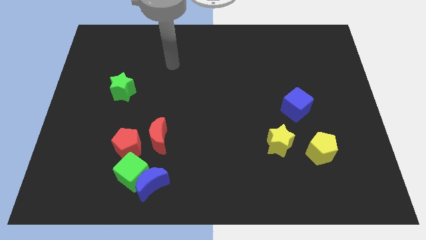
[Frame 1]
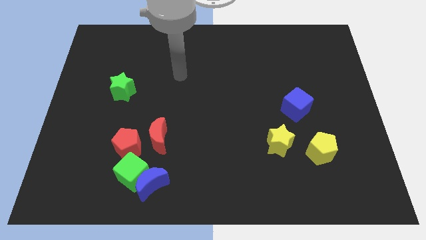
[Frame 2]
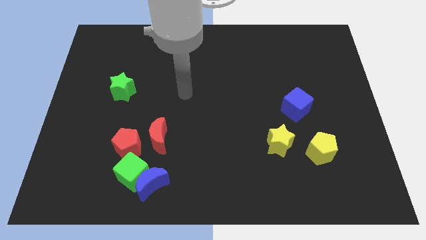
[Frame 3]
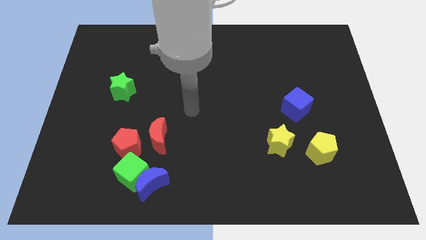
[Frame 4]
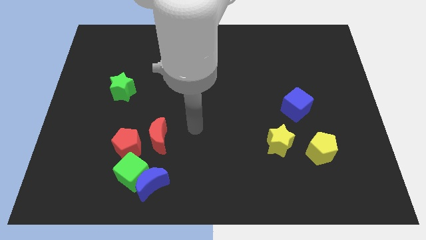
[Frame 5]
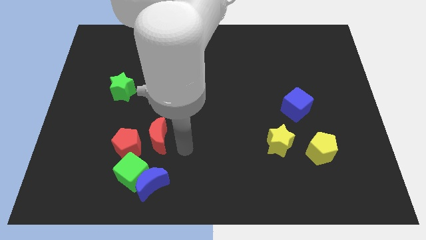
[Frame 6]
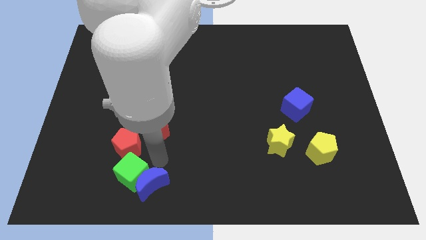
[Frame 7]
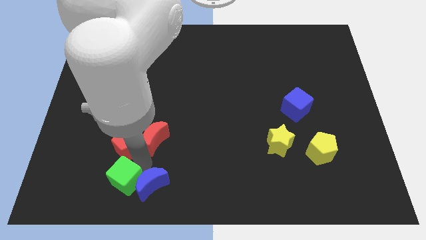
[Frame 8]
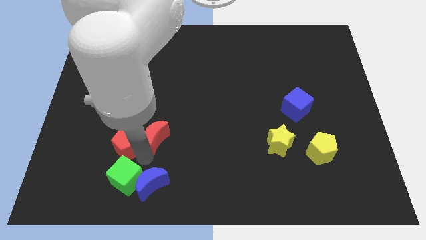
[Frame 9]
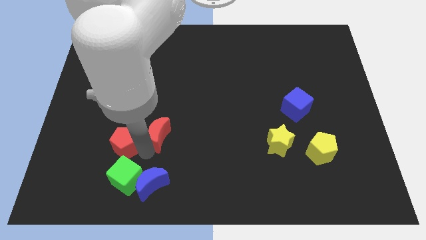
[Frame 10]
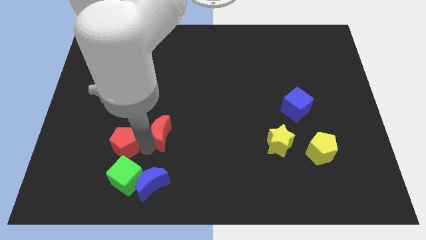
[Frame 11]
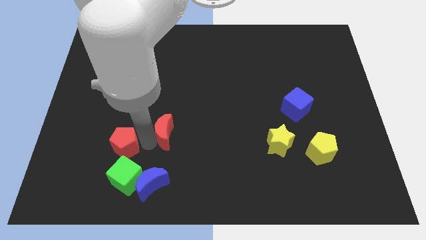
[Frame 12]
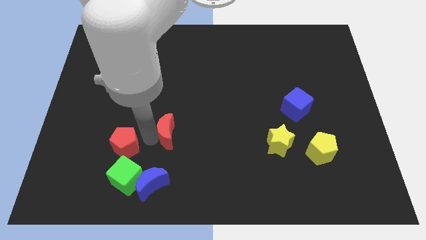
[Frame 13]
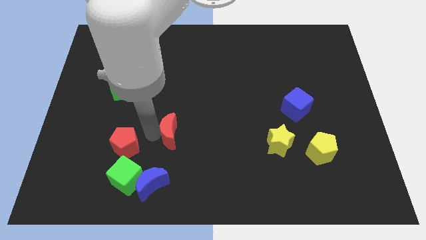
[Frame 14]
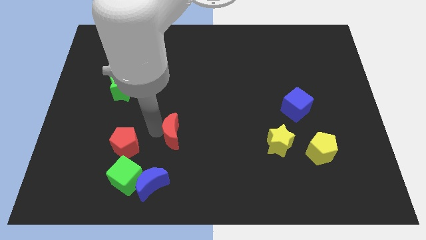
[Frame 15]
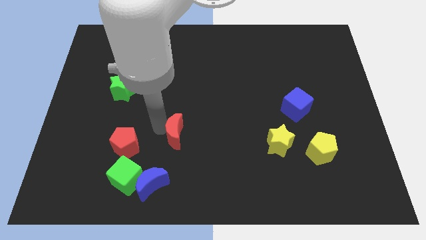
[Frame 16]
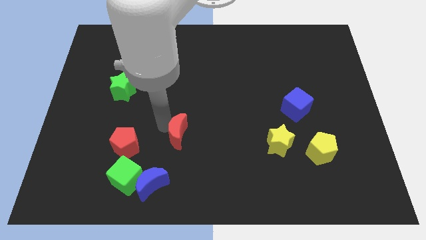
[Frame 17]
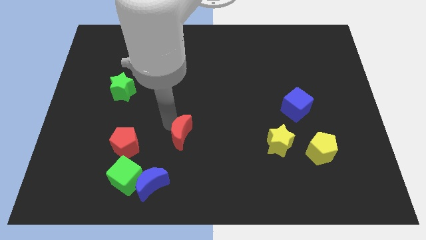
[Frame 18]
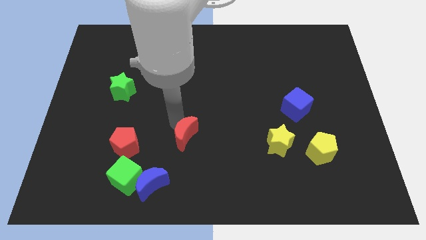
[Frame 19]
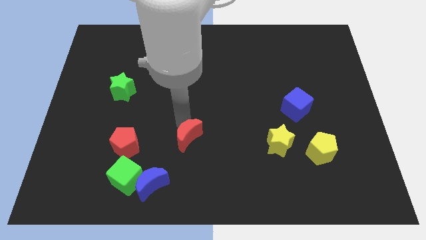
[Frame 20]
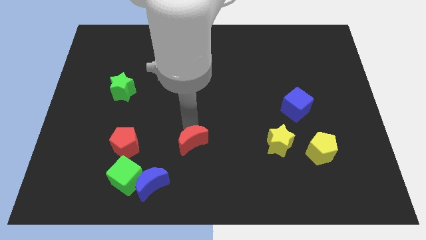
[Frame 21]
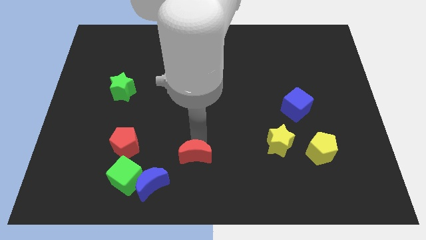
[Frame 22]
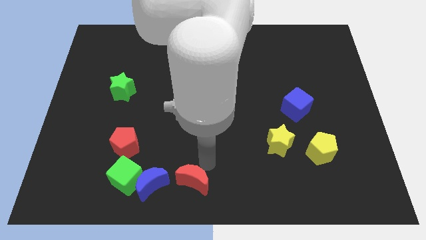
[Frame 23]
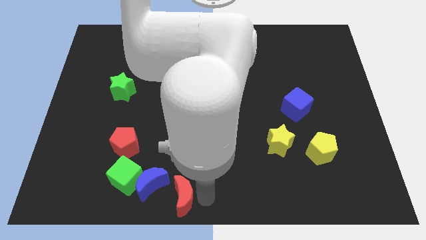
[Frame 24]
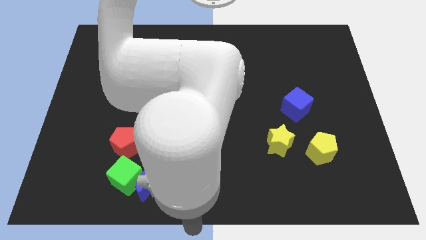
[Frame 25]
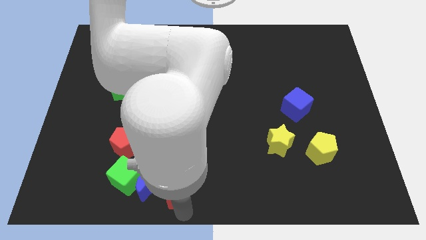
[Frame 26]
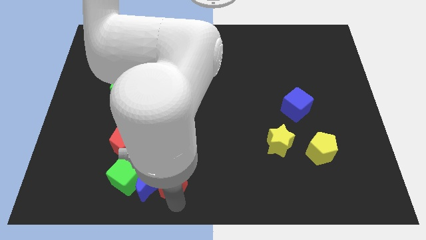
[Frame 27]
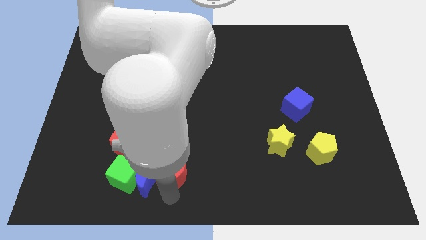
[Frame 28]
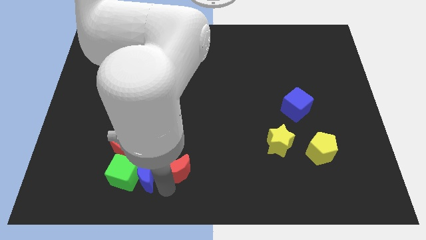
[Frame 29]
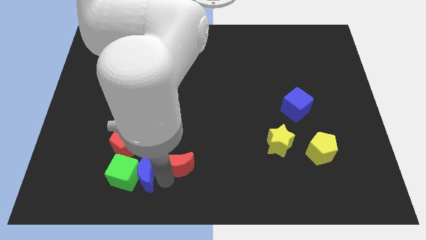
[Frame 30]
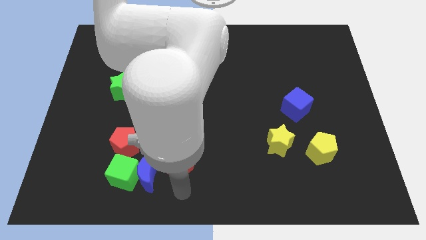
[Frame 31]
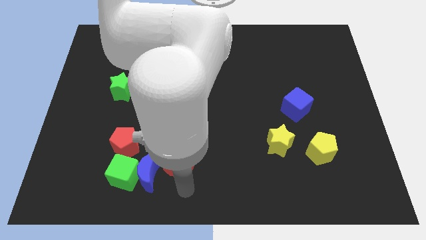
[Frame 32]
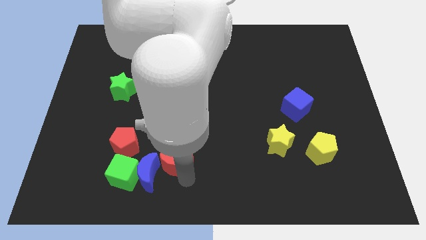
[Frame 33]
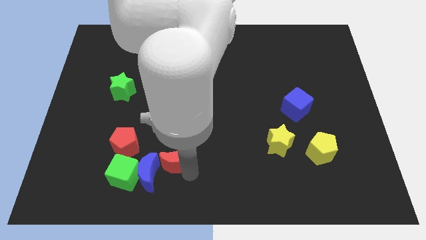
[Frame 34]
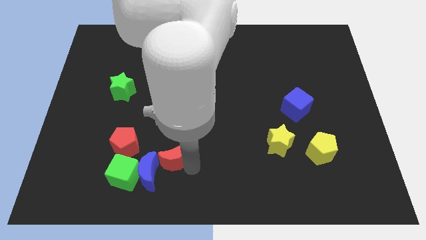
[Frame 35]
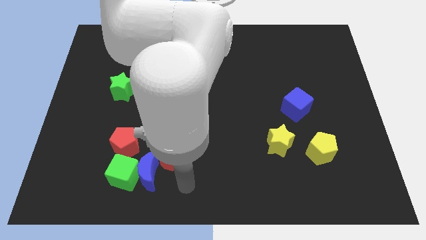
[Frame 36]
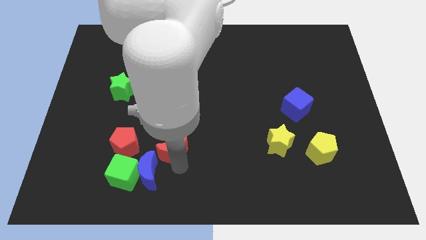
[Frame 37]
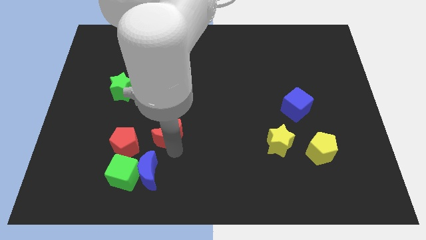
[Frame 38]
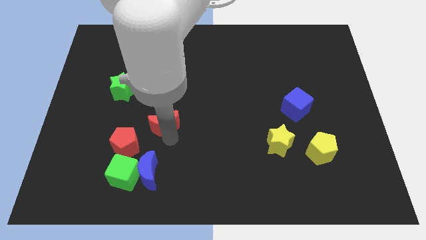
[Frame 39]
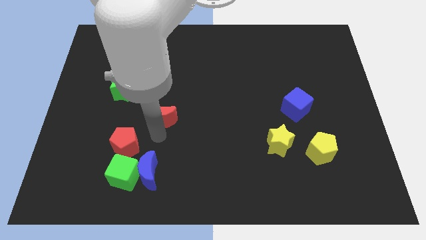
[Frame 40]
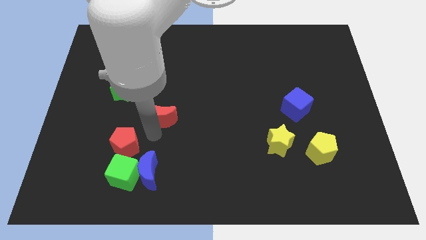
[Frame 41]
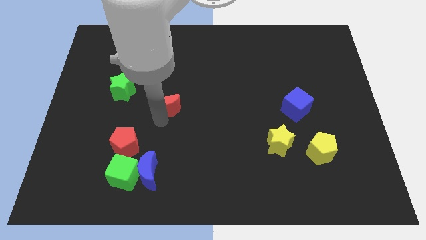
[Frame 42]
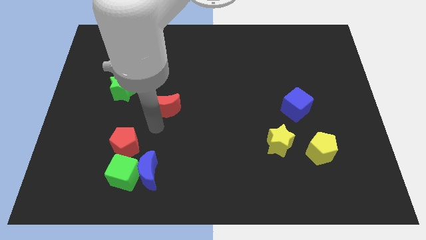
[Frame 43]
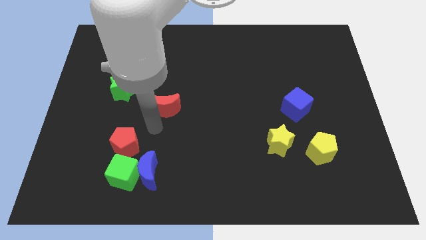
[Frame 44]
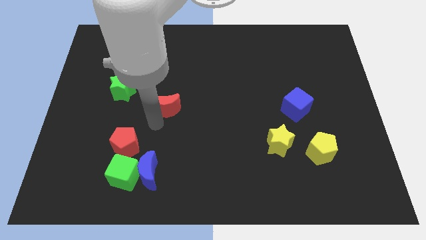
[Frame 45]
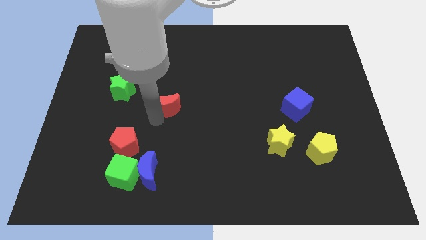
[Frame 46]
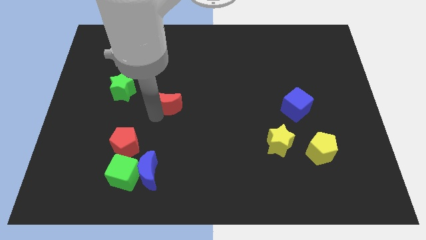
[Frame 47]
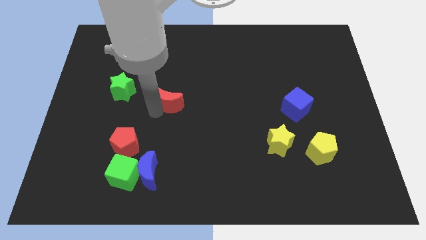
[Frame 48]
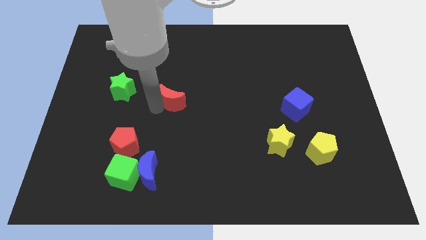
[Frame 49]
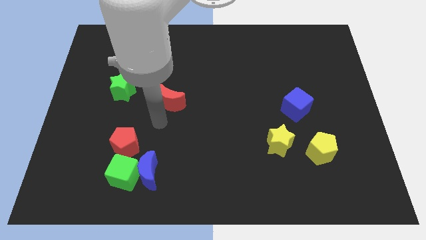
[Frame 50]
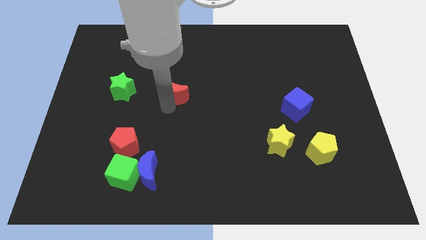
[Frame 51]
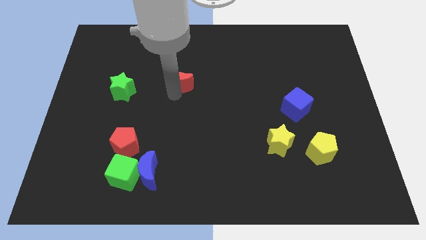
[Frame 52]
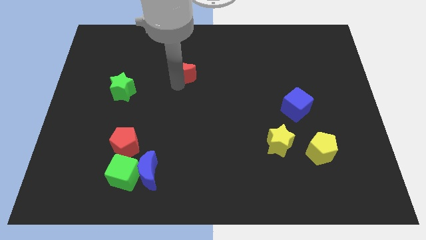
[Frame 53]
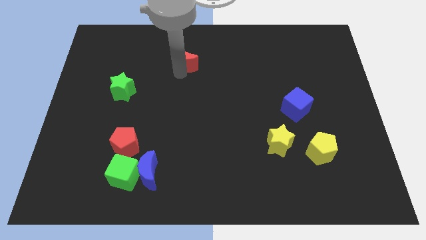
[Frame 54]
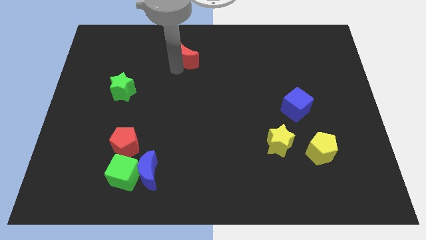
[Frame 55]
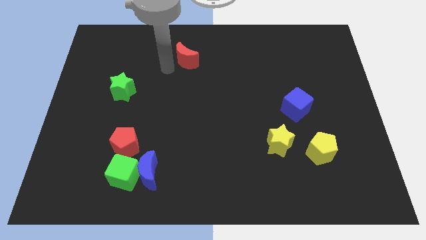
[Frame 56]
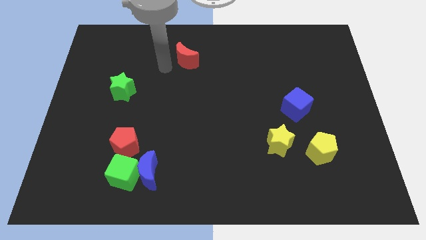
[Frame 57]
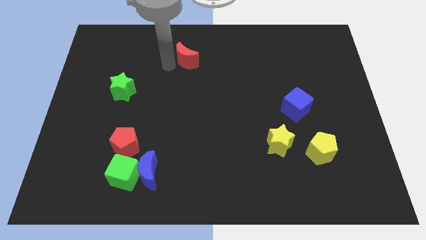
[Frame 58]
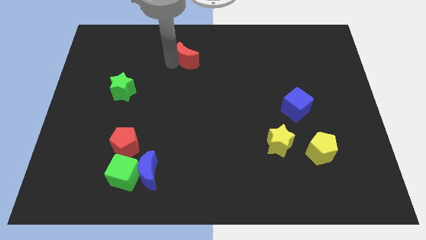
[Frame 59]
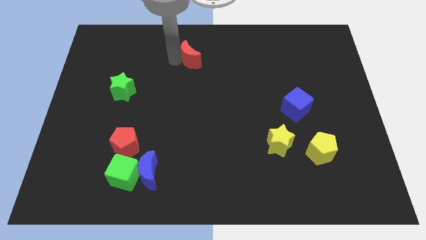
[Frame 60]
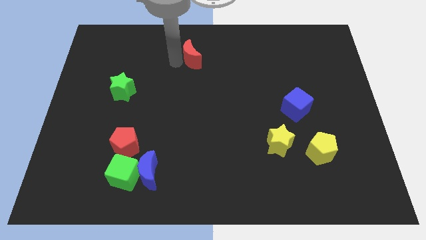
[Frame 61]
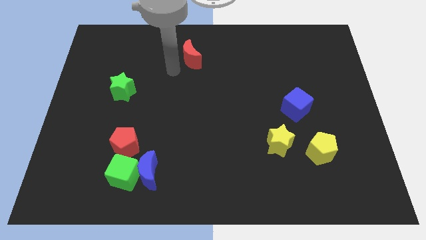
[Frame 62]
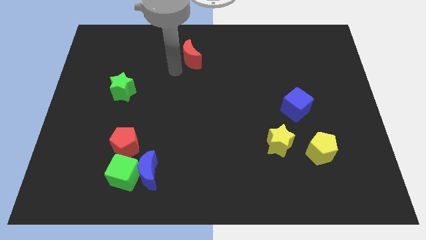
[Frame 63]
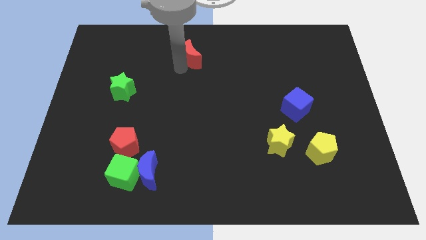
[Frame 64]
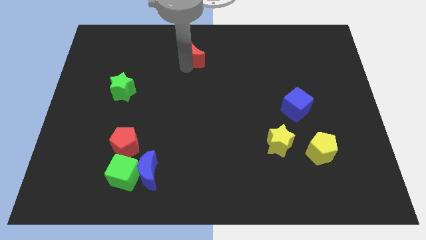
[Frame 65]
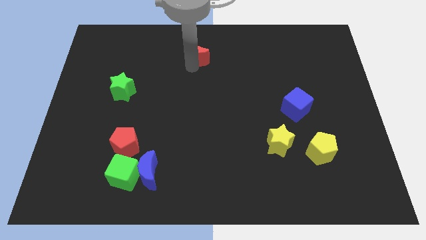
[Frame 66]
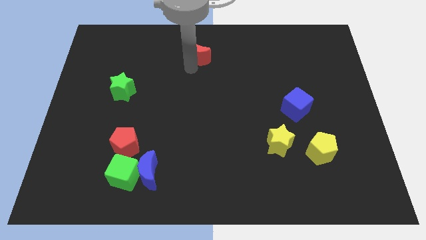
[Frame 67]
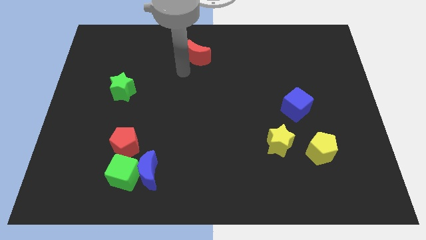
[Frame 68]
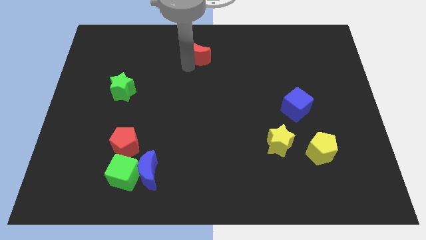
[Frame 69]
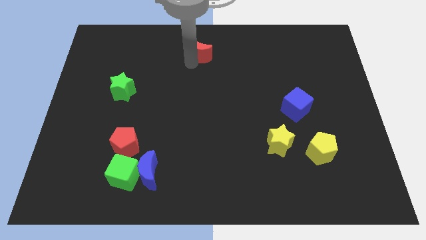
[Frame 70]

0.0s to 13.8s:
move the red moon to the top
